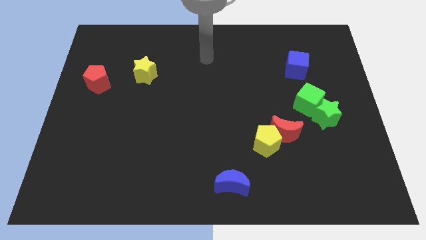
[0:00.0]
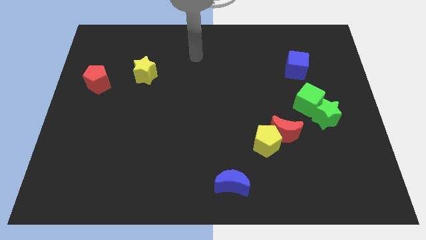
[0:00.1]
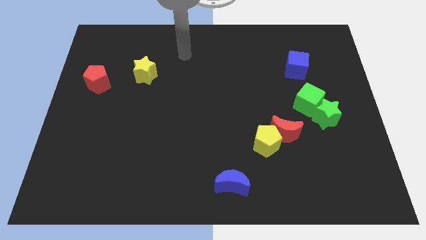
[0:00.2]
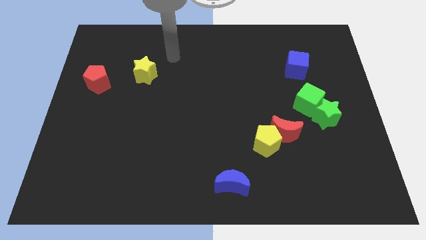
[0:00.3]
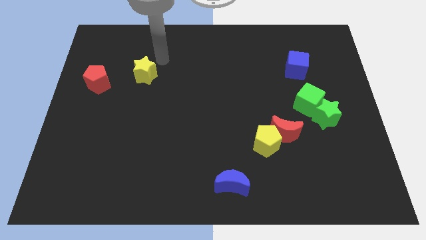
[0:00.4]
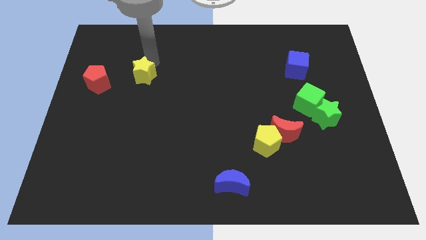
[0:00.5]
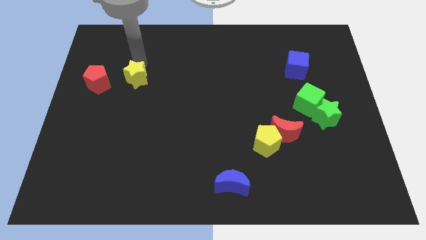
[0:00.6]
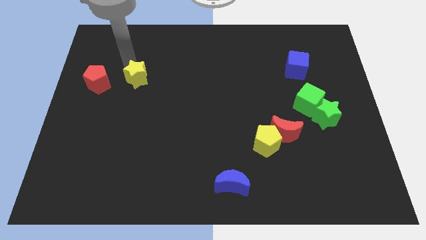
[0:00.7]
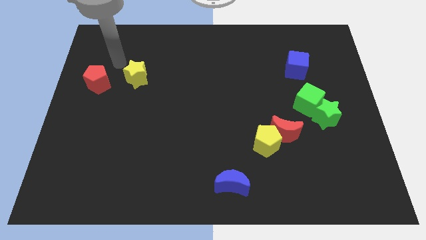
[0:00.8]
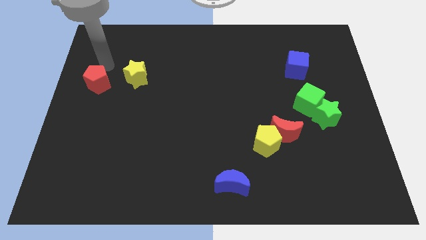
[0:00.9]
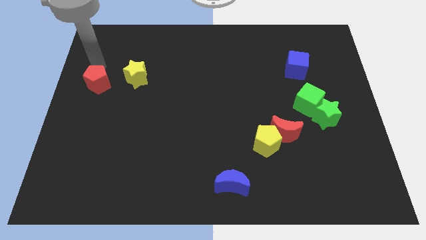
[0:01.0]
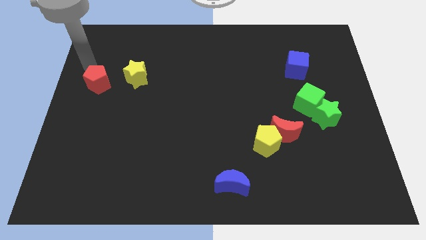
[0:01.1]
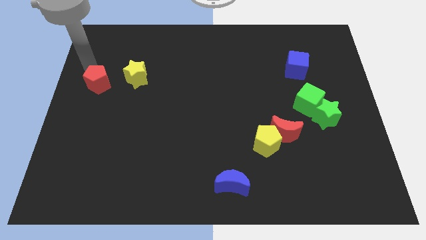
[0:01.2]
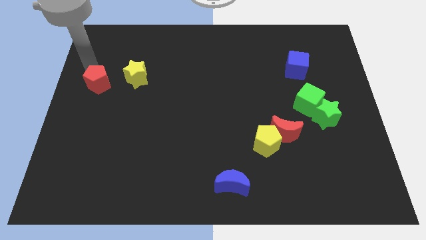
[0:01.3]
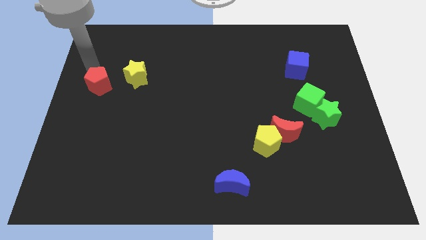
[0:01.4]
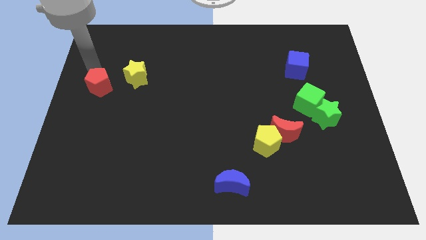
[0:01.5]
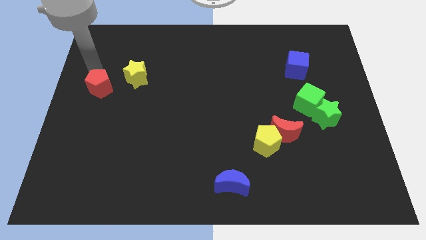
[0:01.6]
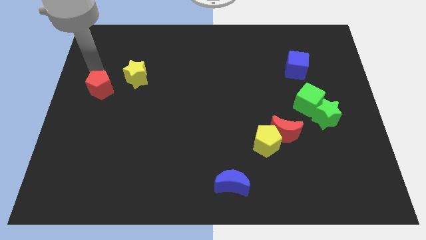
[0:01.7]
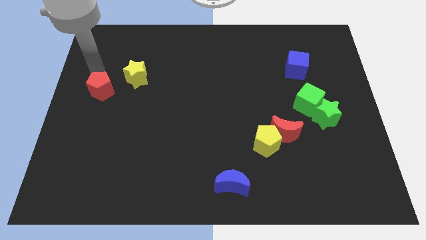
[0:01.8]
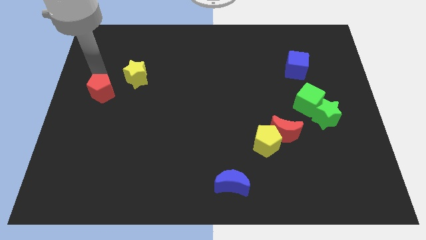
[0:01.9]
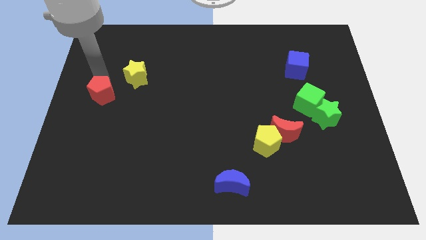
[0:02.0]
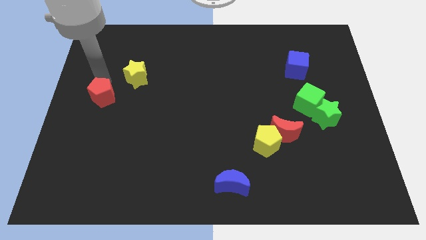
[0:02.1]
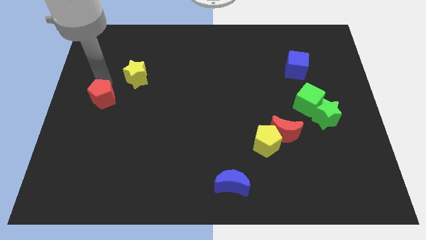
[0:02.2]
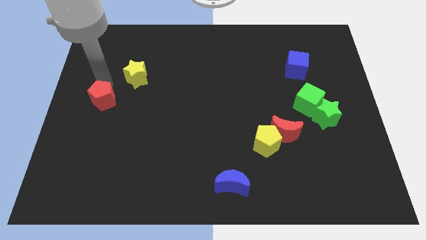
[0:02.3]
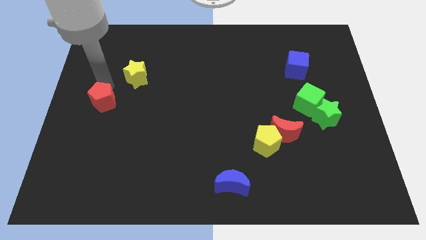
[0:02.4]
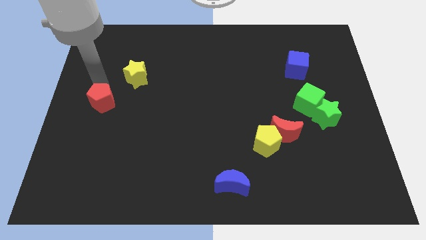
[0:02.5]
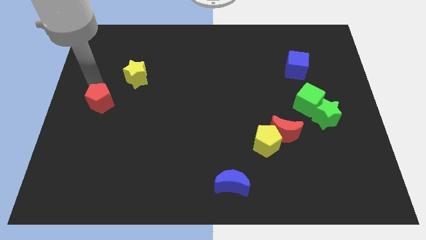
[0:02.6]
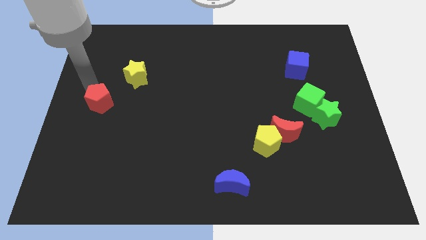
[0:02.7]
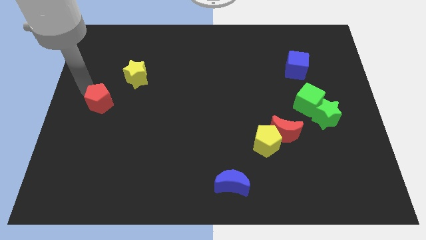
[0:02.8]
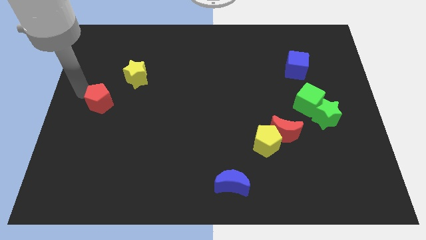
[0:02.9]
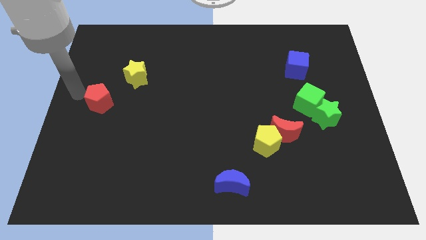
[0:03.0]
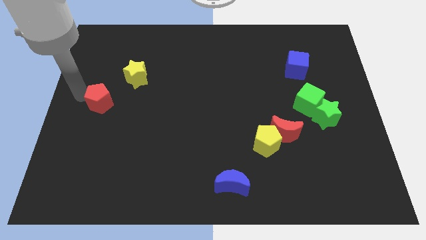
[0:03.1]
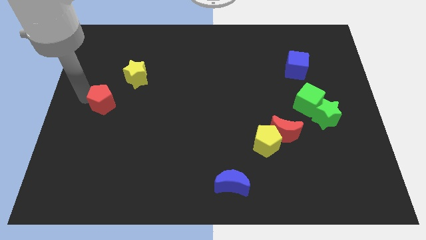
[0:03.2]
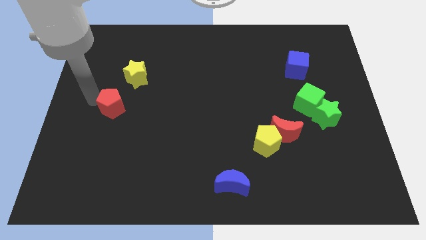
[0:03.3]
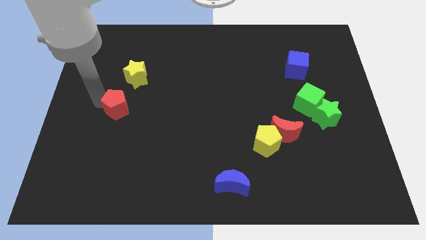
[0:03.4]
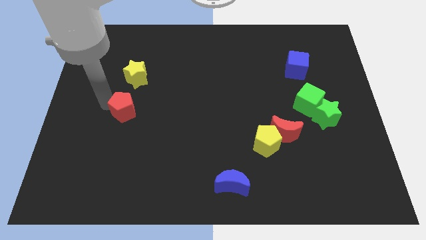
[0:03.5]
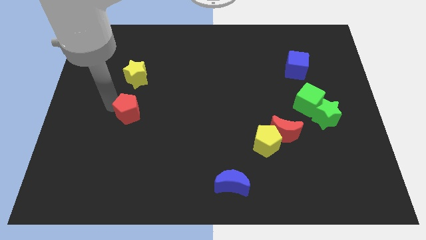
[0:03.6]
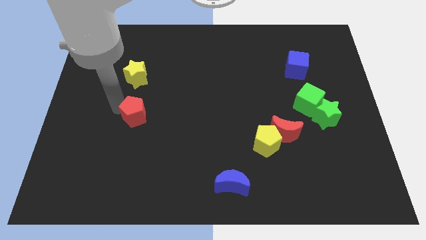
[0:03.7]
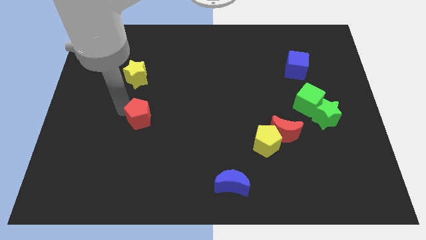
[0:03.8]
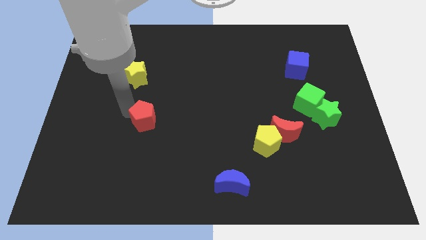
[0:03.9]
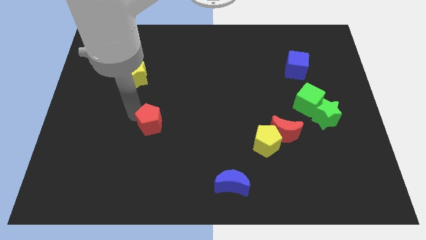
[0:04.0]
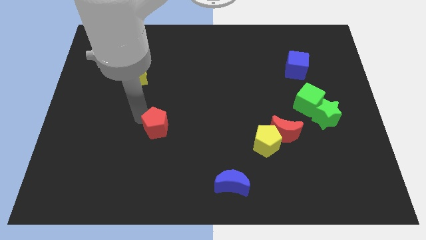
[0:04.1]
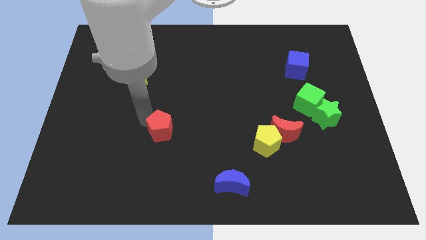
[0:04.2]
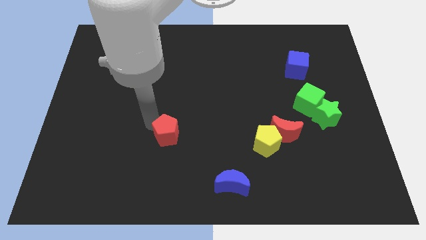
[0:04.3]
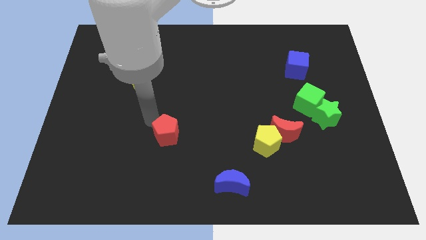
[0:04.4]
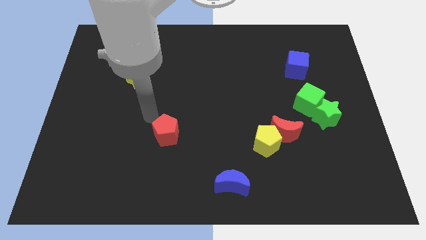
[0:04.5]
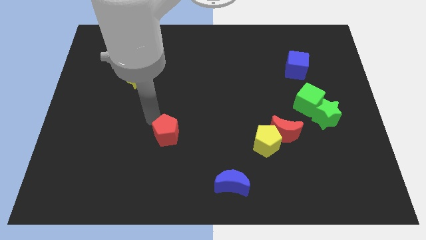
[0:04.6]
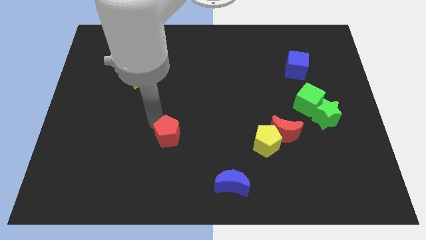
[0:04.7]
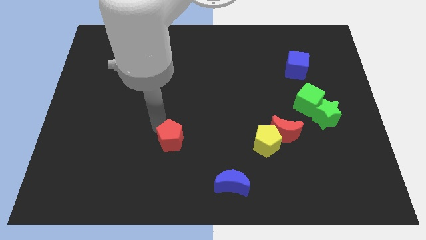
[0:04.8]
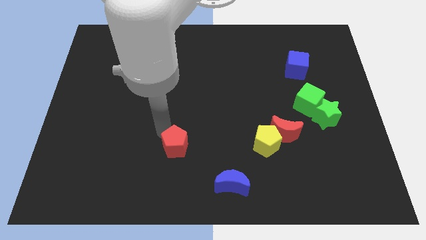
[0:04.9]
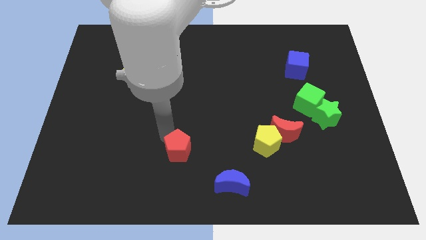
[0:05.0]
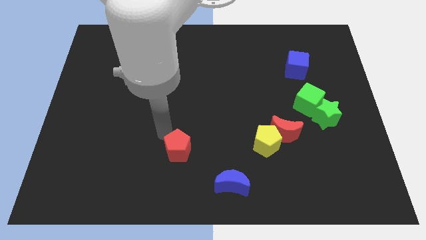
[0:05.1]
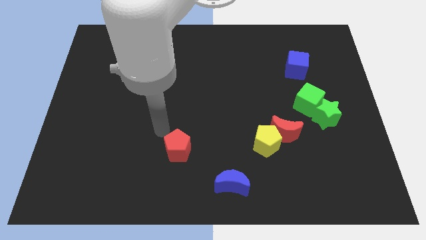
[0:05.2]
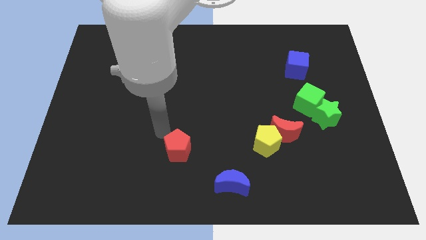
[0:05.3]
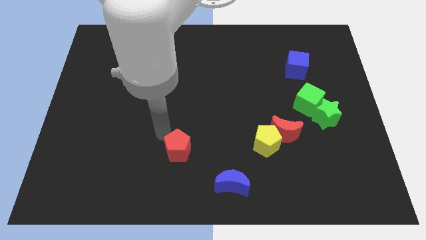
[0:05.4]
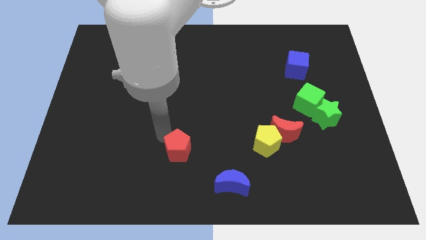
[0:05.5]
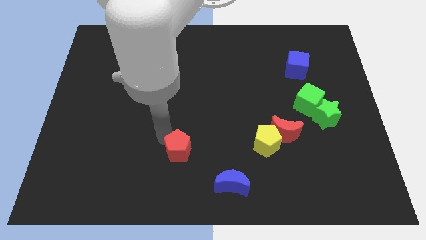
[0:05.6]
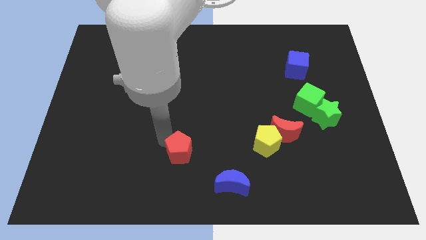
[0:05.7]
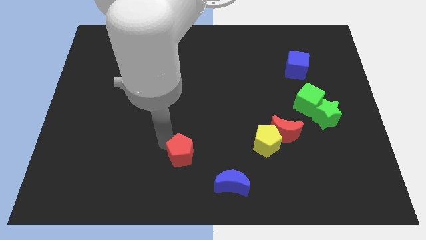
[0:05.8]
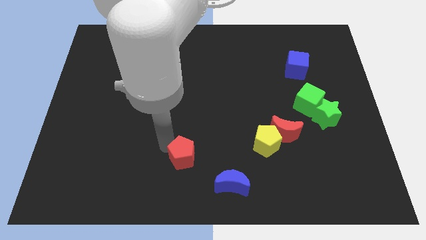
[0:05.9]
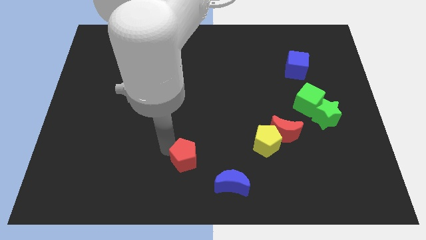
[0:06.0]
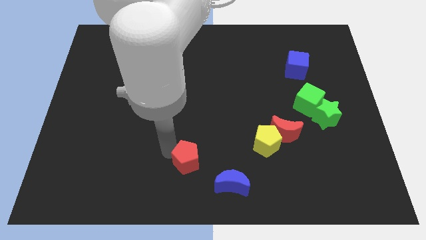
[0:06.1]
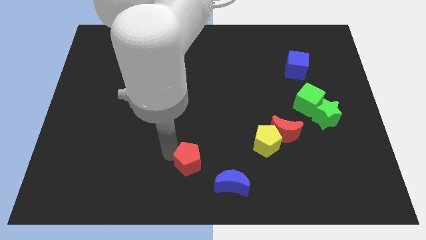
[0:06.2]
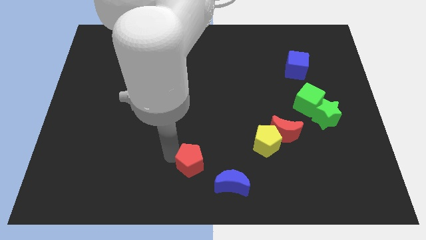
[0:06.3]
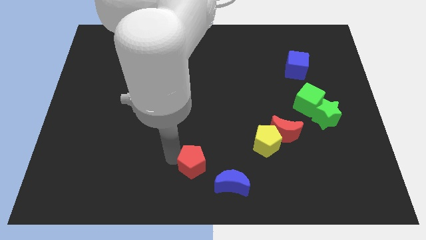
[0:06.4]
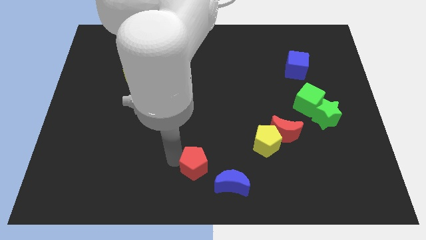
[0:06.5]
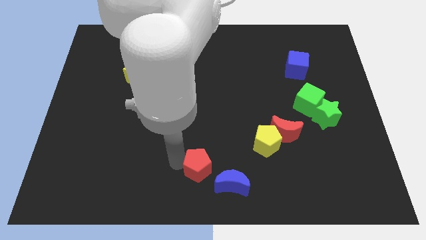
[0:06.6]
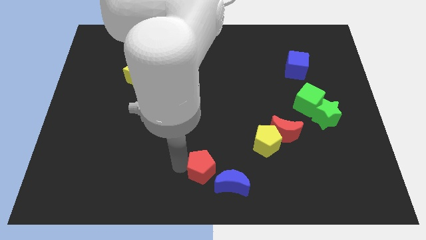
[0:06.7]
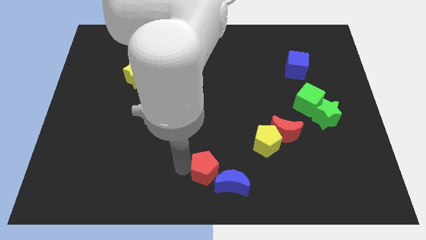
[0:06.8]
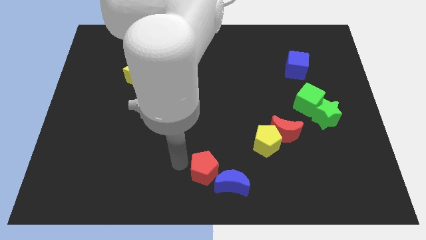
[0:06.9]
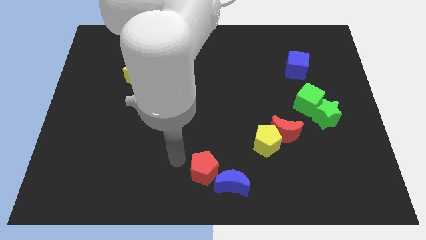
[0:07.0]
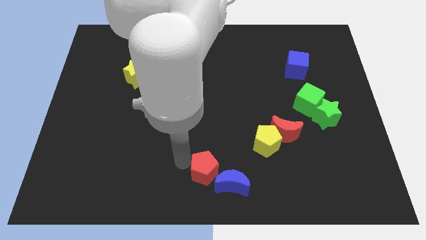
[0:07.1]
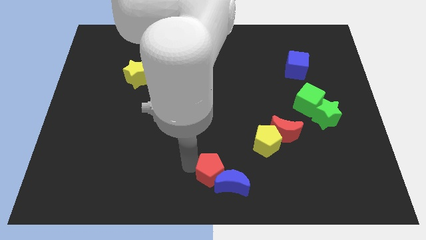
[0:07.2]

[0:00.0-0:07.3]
put the red pentagon towards the blue moon
